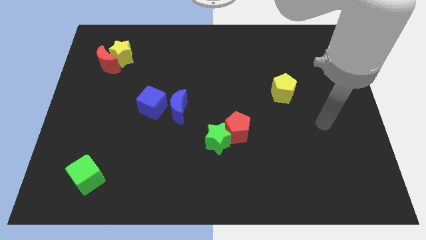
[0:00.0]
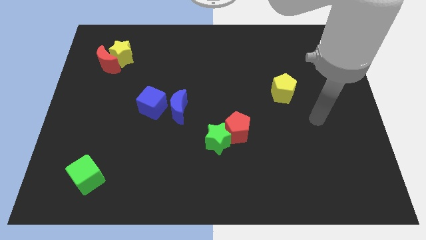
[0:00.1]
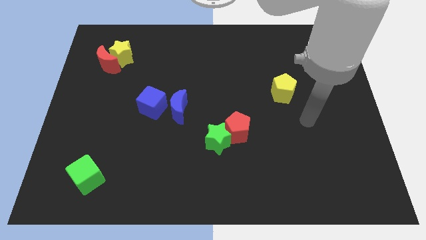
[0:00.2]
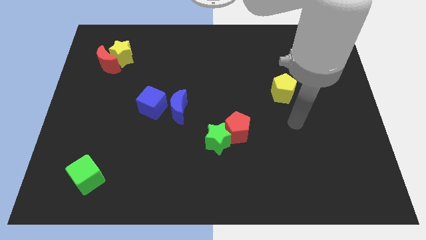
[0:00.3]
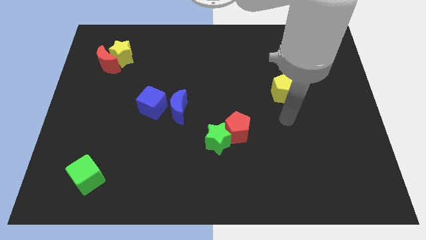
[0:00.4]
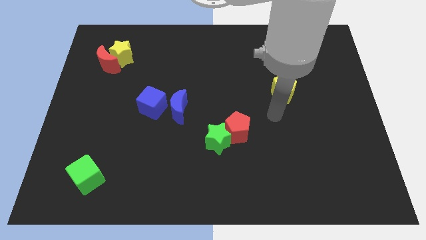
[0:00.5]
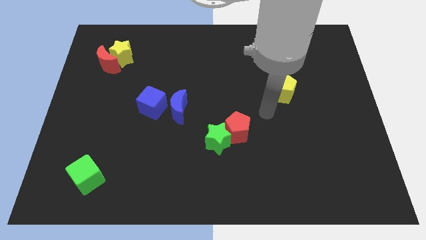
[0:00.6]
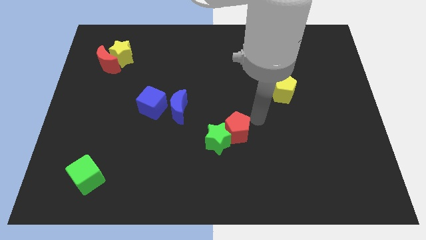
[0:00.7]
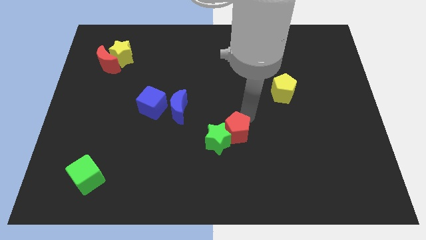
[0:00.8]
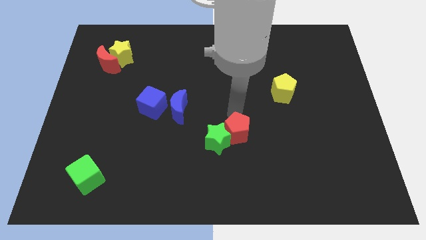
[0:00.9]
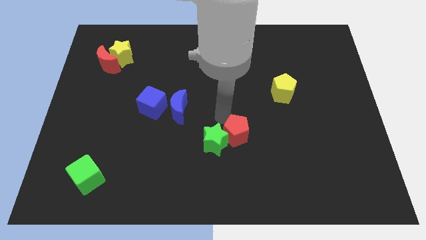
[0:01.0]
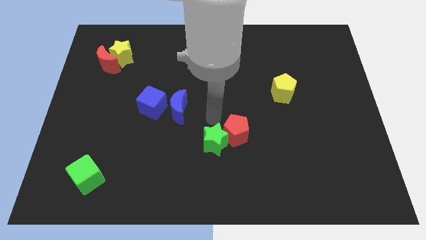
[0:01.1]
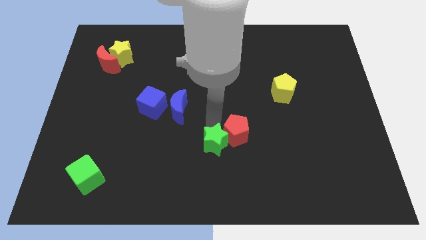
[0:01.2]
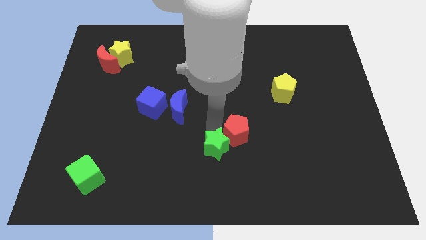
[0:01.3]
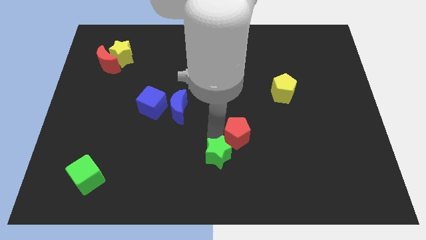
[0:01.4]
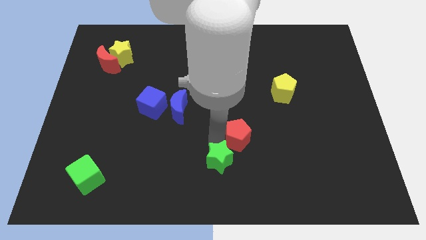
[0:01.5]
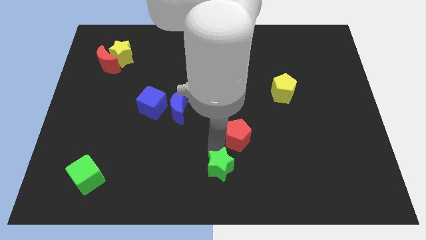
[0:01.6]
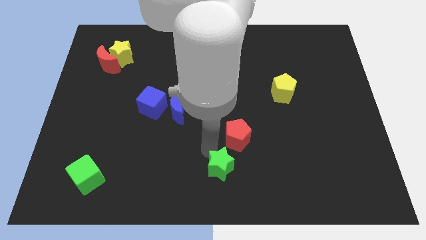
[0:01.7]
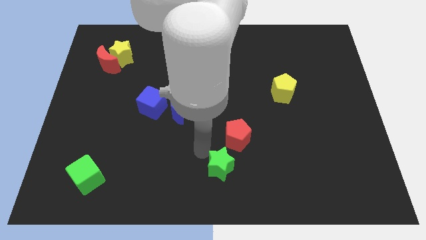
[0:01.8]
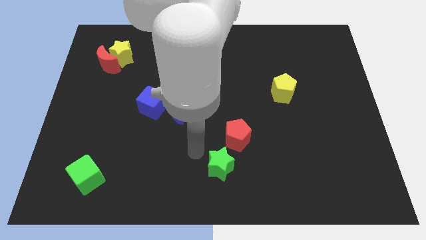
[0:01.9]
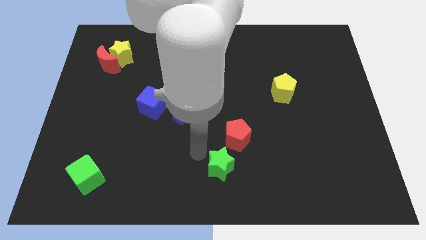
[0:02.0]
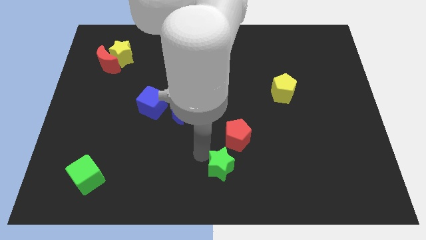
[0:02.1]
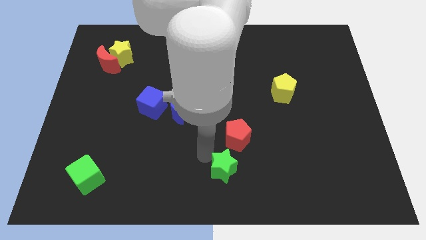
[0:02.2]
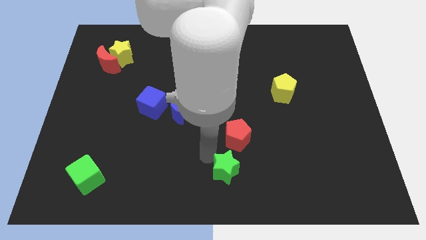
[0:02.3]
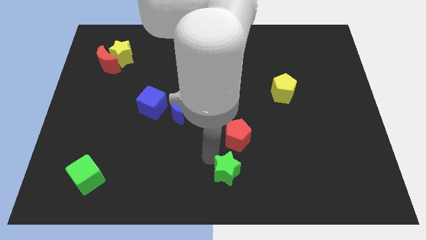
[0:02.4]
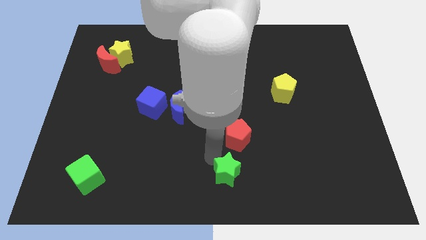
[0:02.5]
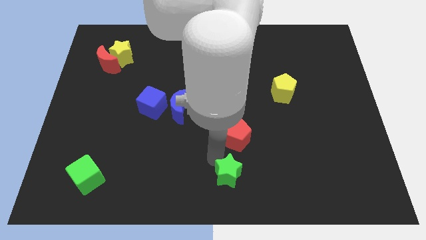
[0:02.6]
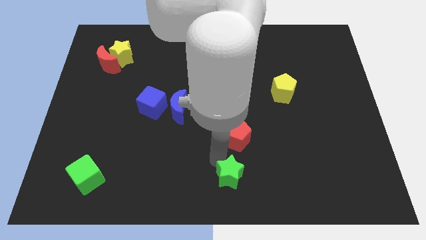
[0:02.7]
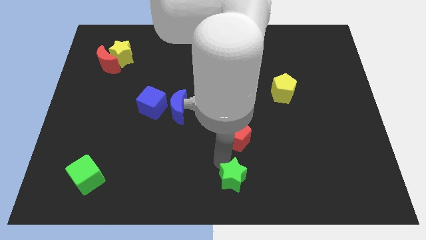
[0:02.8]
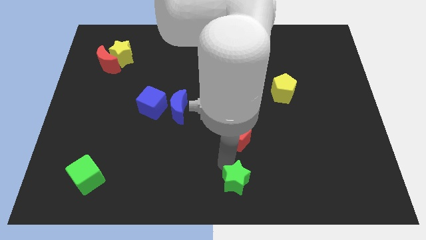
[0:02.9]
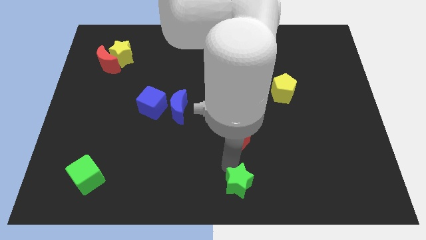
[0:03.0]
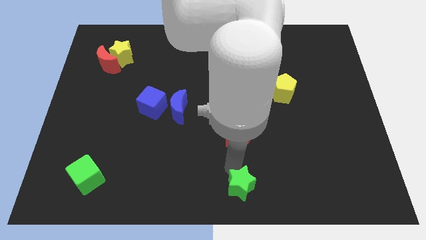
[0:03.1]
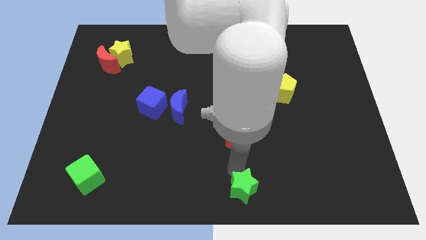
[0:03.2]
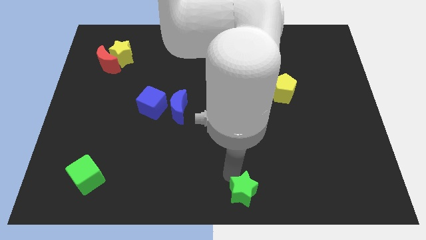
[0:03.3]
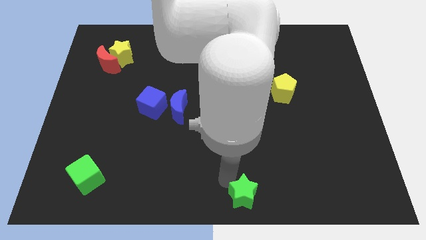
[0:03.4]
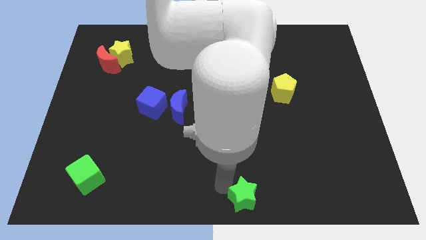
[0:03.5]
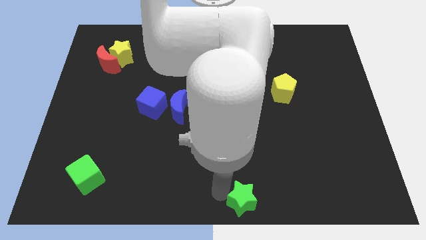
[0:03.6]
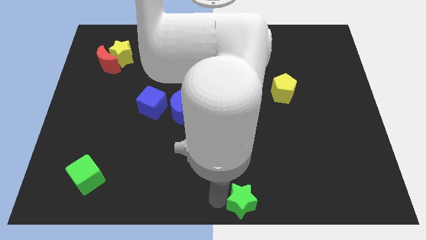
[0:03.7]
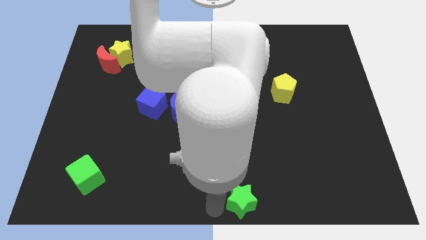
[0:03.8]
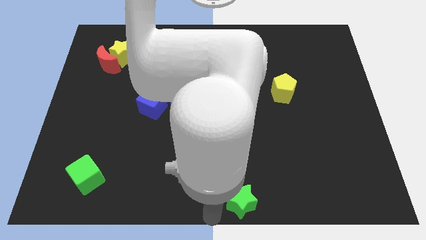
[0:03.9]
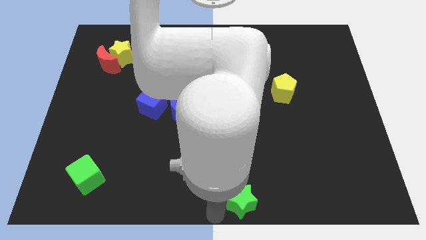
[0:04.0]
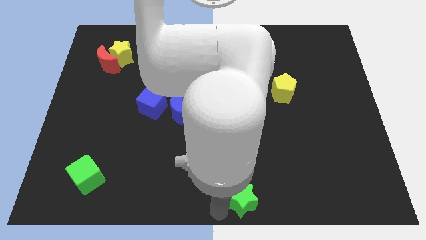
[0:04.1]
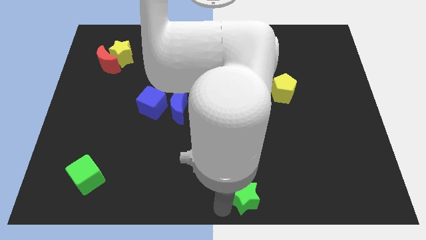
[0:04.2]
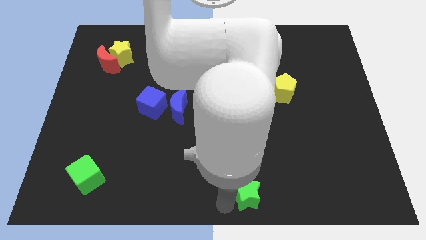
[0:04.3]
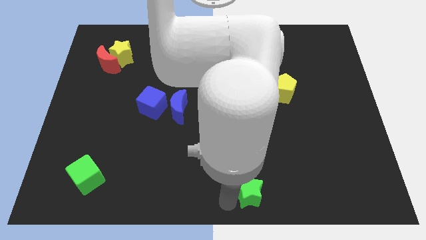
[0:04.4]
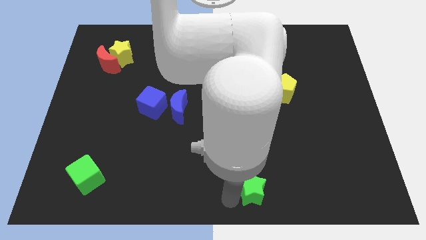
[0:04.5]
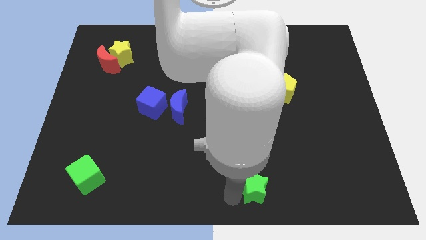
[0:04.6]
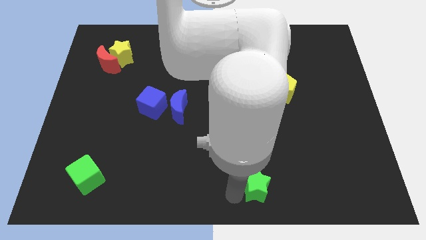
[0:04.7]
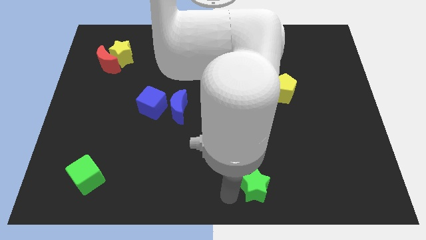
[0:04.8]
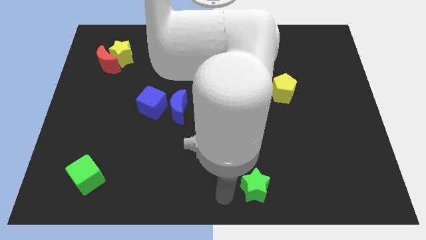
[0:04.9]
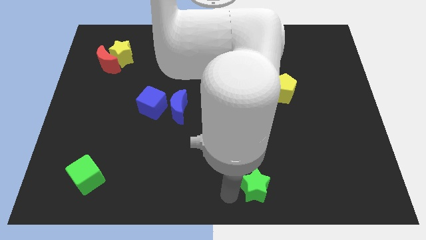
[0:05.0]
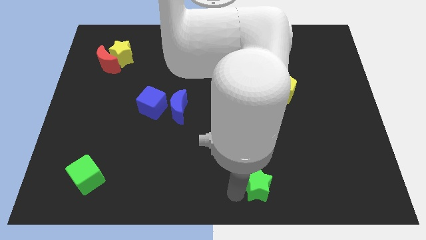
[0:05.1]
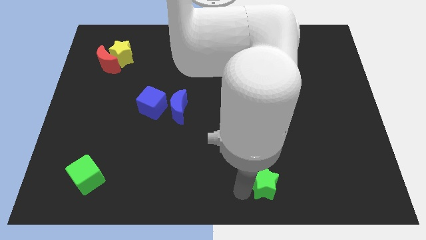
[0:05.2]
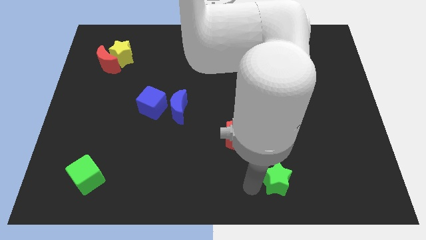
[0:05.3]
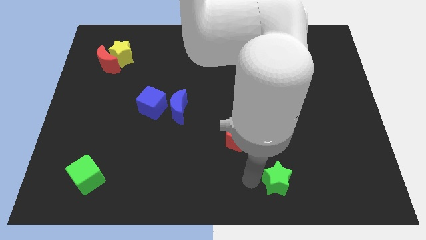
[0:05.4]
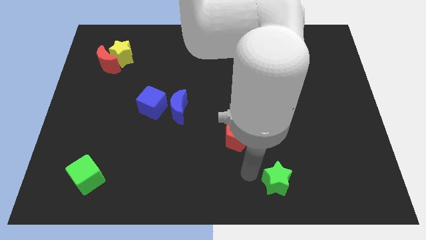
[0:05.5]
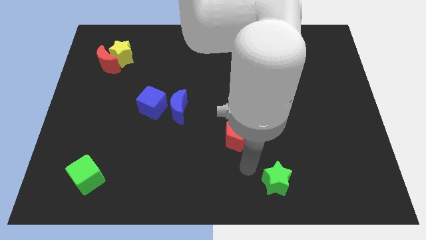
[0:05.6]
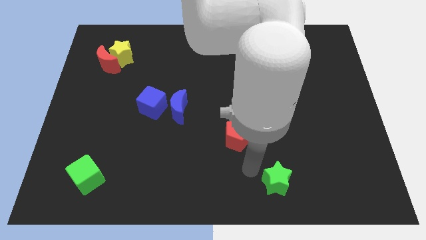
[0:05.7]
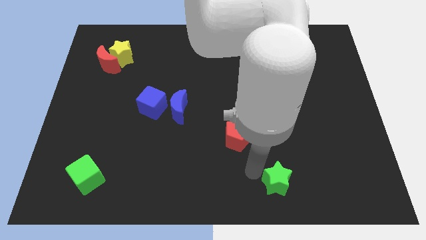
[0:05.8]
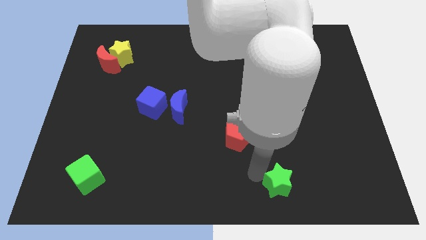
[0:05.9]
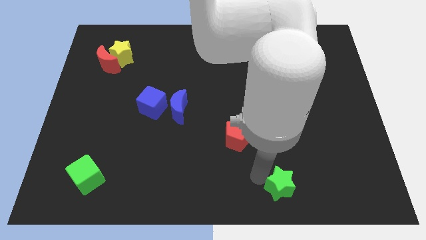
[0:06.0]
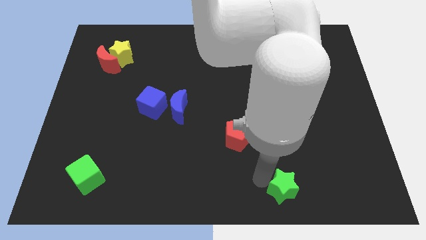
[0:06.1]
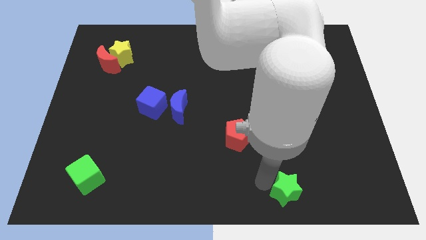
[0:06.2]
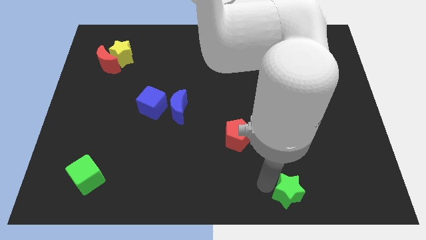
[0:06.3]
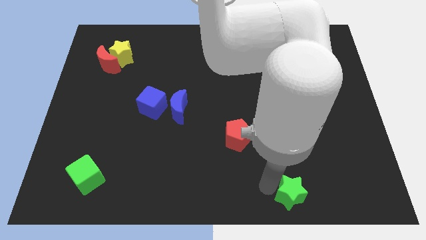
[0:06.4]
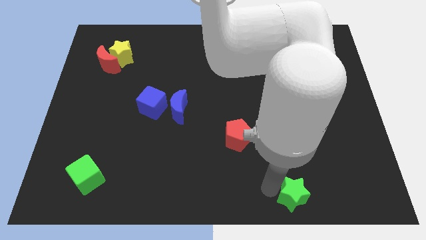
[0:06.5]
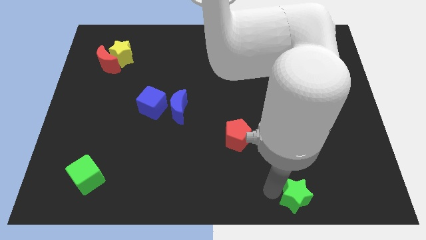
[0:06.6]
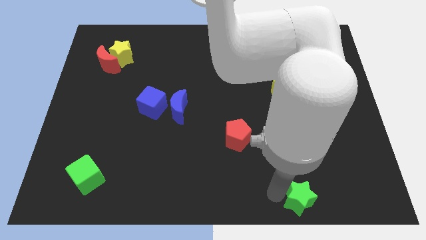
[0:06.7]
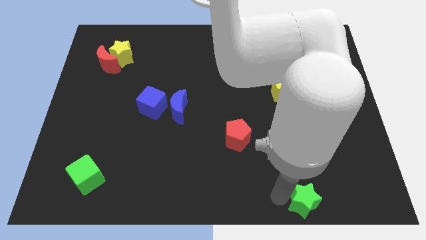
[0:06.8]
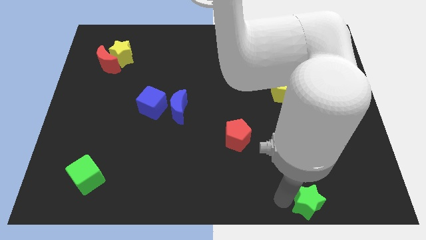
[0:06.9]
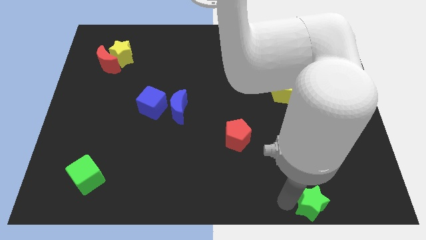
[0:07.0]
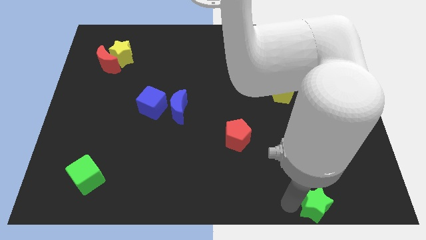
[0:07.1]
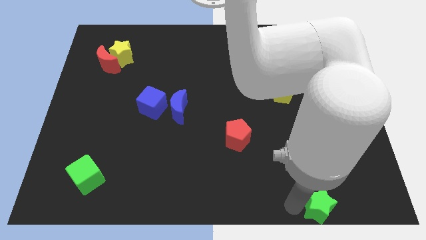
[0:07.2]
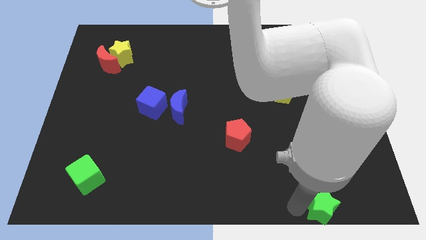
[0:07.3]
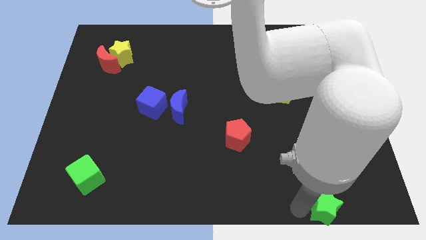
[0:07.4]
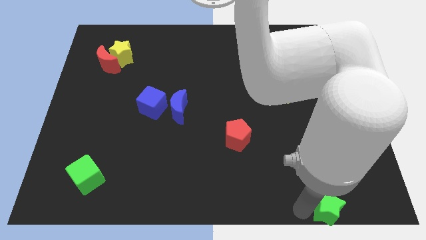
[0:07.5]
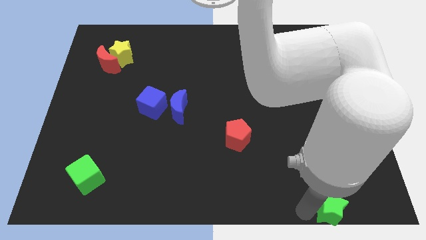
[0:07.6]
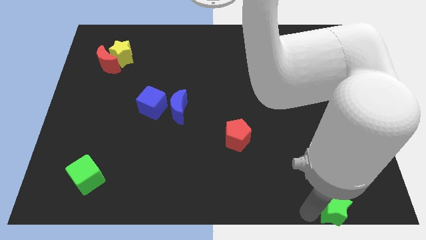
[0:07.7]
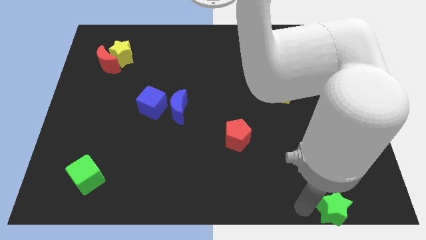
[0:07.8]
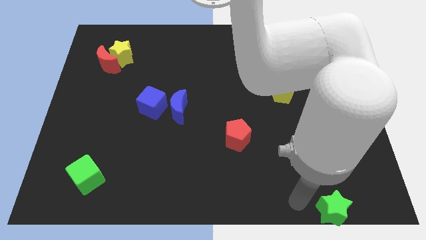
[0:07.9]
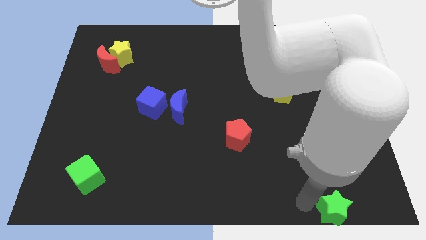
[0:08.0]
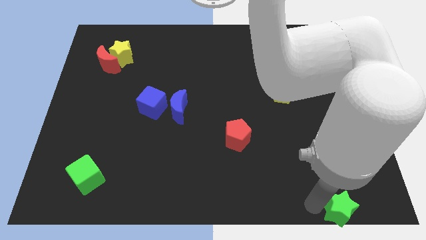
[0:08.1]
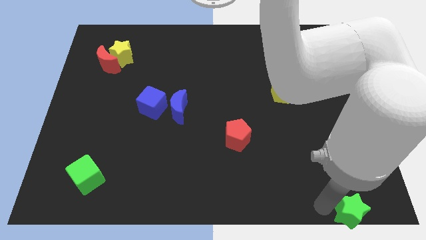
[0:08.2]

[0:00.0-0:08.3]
slide the green star to the bottom right
